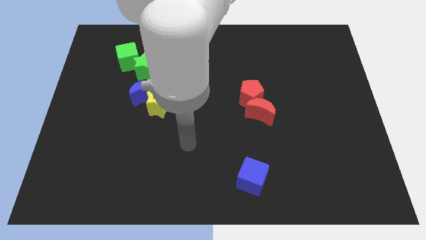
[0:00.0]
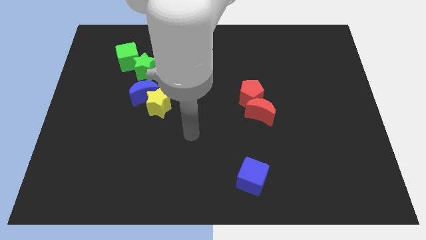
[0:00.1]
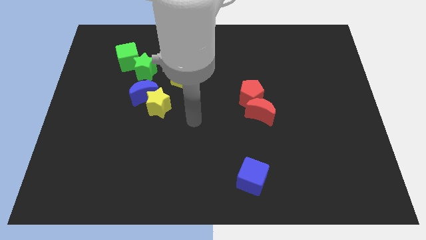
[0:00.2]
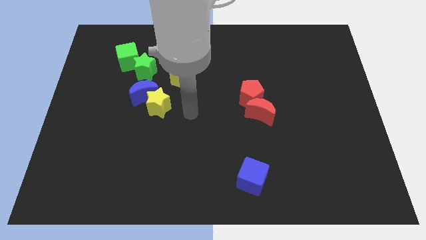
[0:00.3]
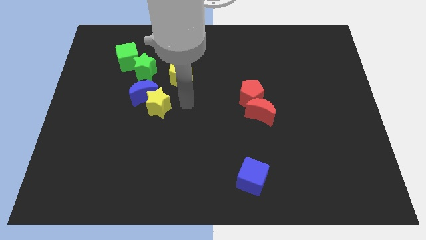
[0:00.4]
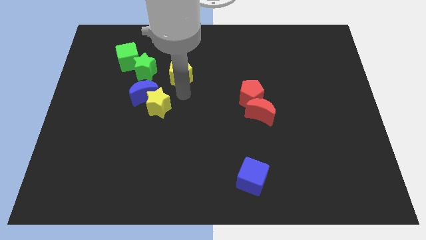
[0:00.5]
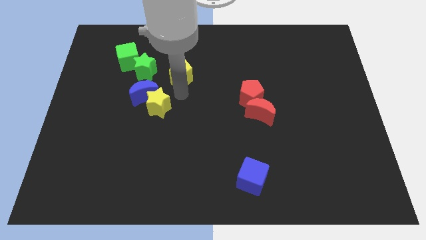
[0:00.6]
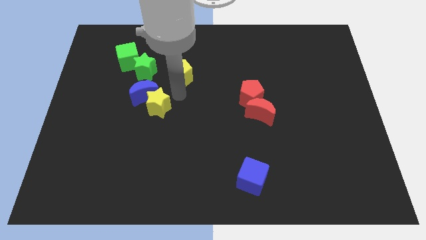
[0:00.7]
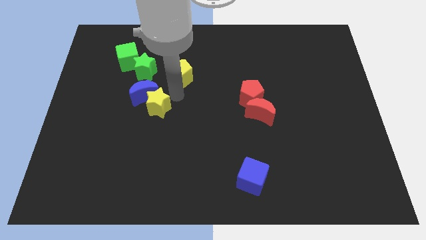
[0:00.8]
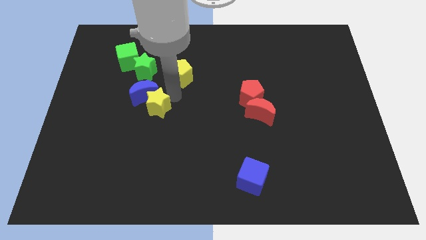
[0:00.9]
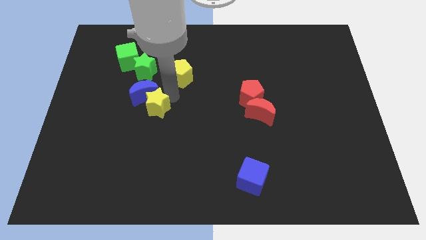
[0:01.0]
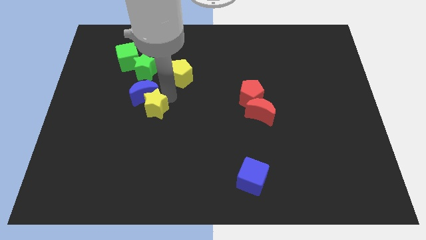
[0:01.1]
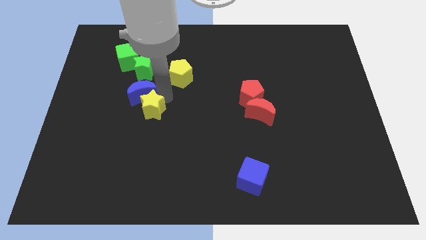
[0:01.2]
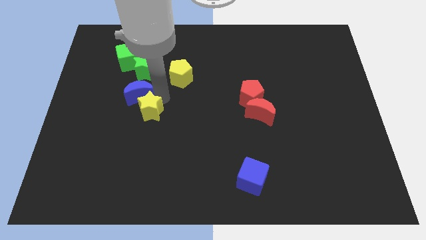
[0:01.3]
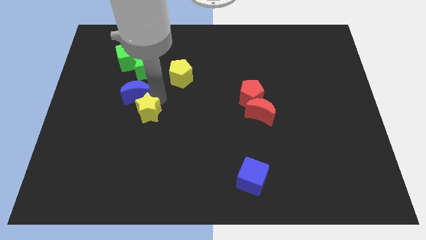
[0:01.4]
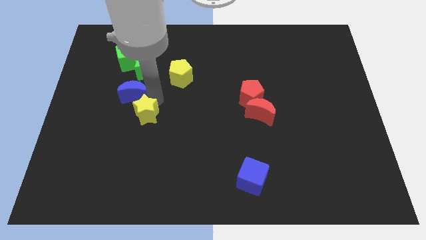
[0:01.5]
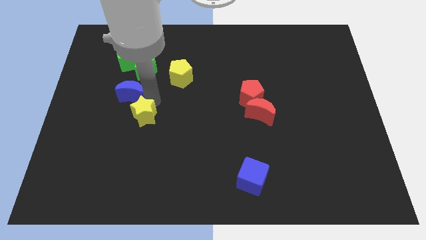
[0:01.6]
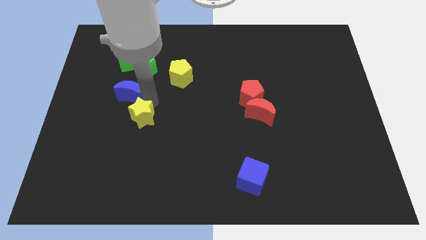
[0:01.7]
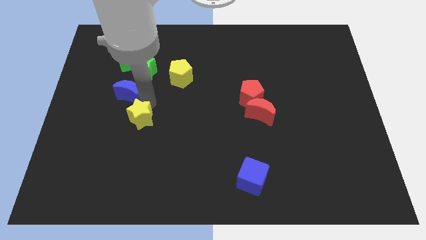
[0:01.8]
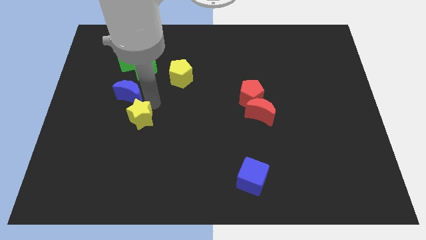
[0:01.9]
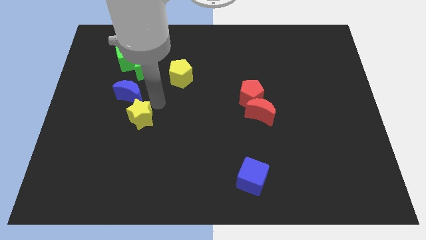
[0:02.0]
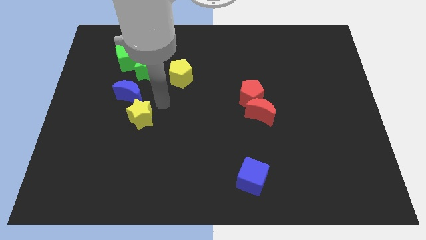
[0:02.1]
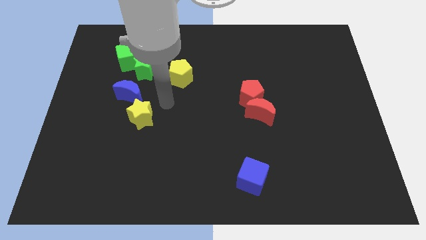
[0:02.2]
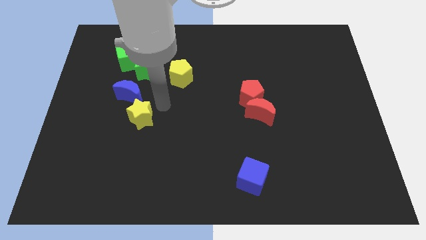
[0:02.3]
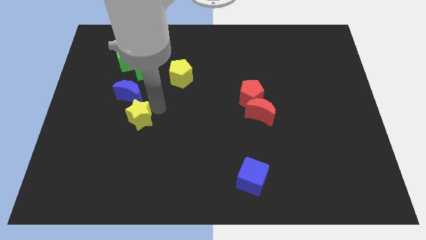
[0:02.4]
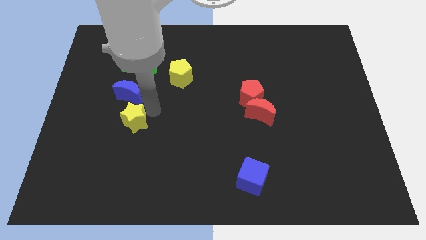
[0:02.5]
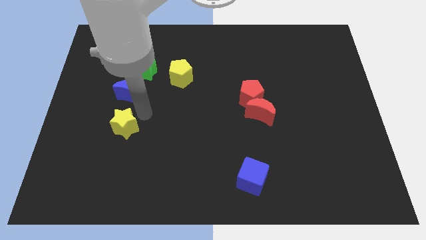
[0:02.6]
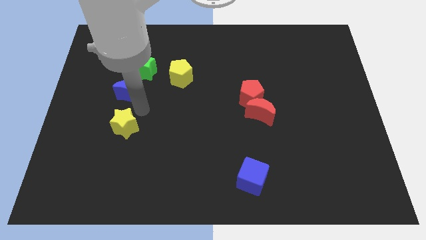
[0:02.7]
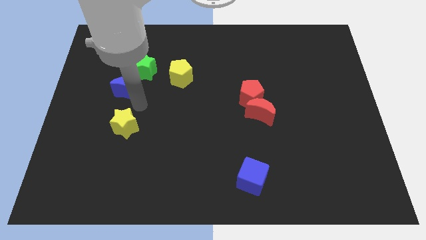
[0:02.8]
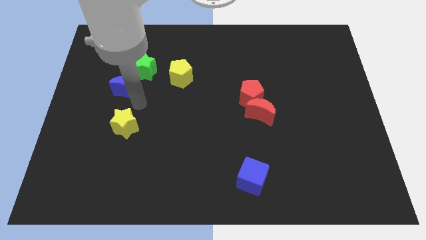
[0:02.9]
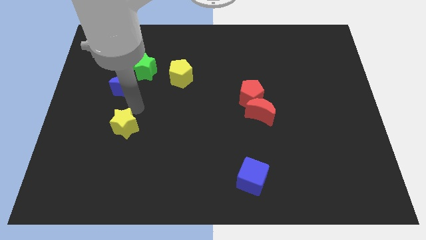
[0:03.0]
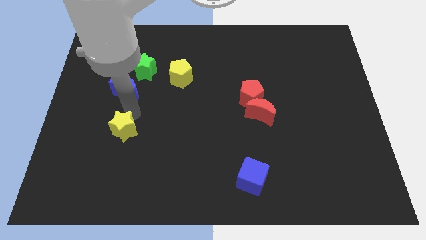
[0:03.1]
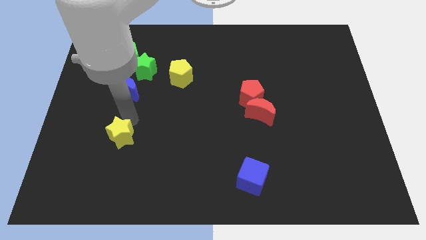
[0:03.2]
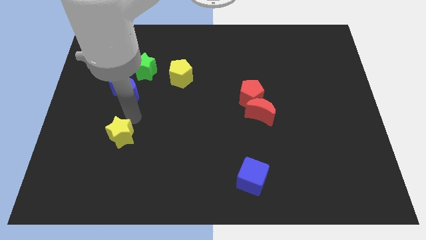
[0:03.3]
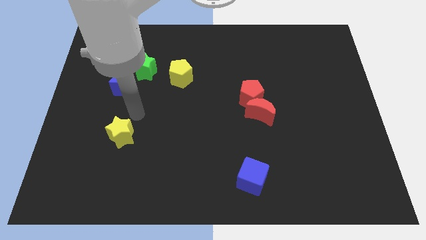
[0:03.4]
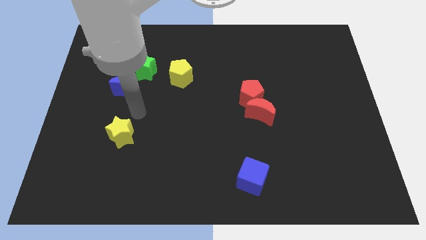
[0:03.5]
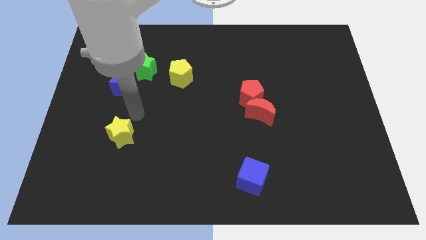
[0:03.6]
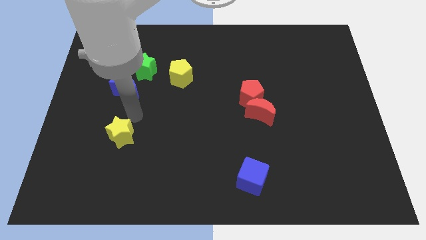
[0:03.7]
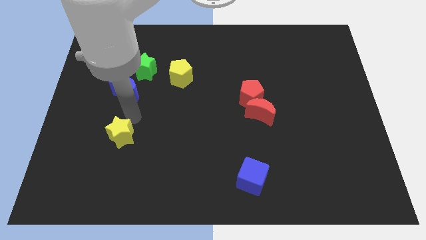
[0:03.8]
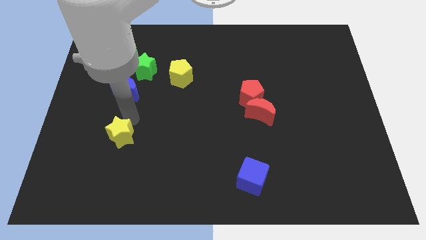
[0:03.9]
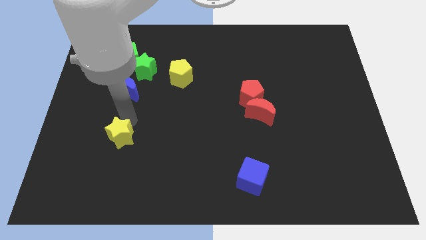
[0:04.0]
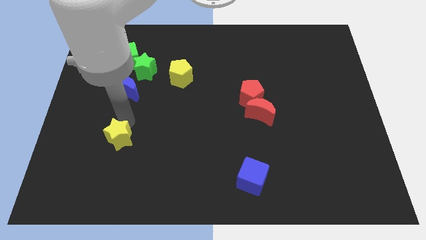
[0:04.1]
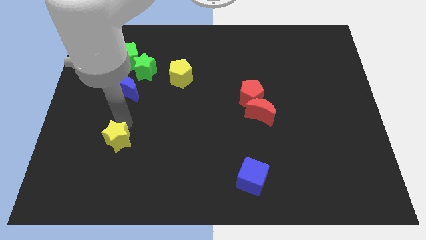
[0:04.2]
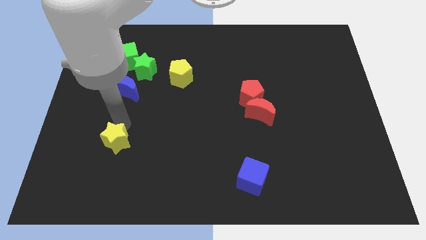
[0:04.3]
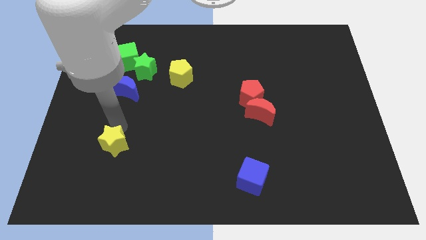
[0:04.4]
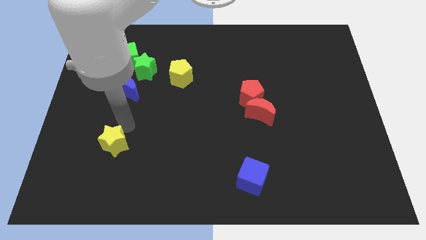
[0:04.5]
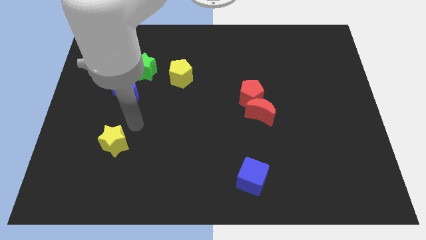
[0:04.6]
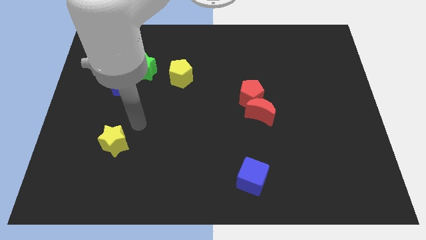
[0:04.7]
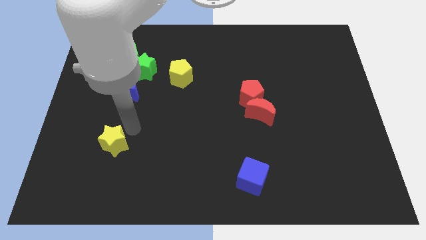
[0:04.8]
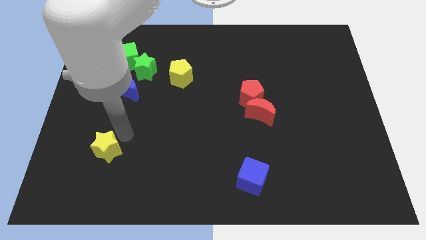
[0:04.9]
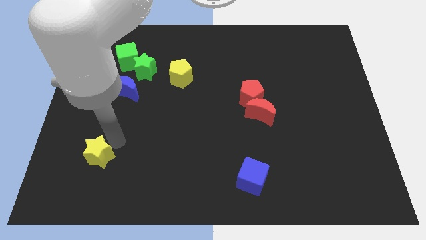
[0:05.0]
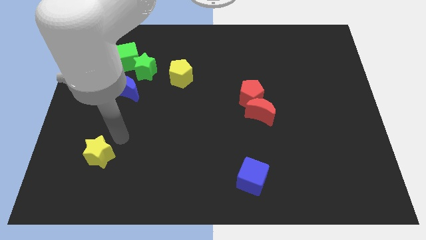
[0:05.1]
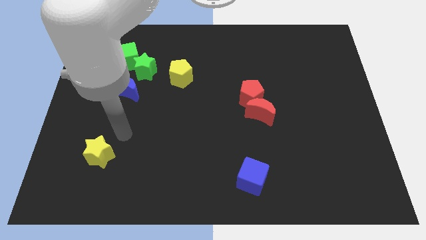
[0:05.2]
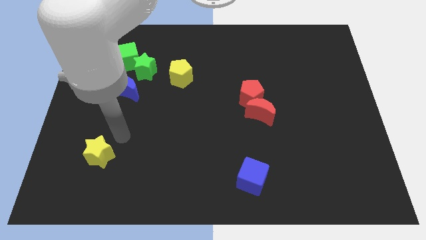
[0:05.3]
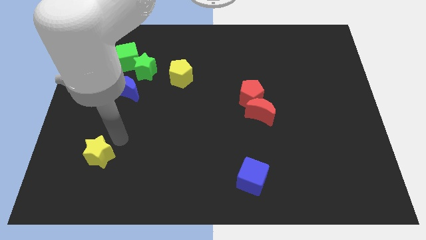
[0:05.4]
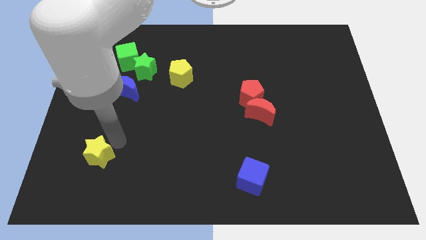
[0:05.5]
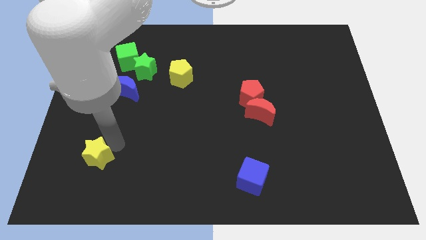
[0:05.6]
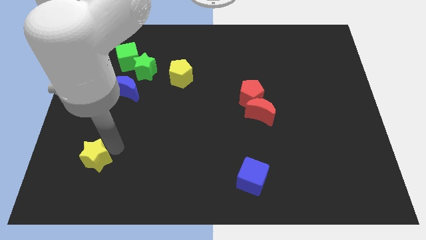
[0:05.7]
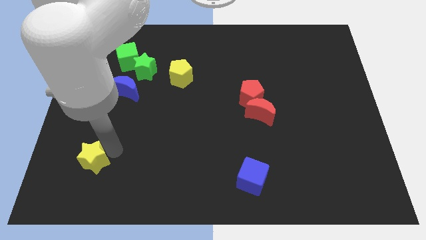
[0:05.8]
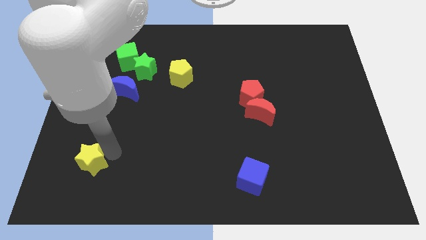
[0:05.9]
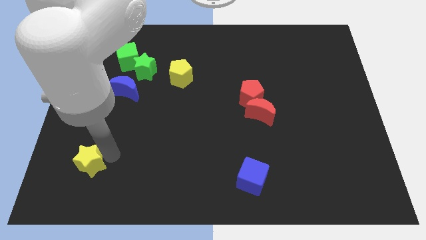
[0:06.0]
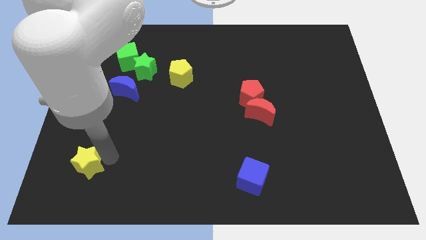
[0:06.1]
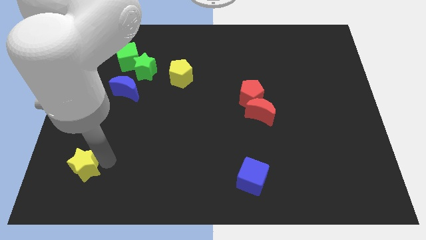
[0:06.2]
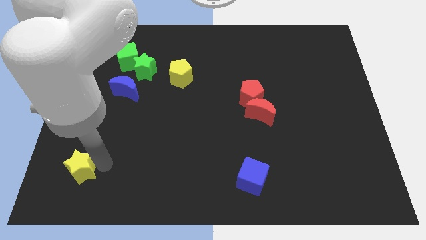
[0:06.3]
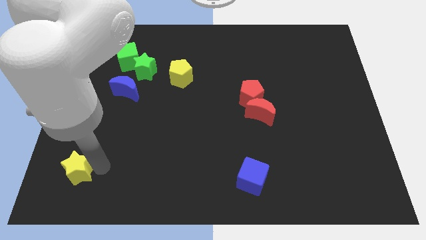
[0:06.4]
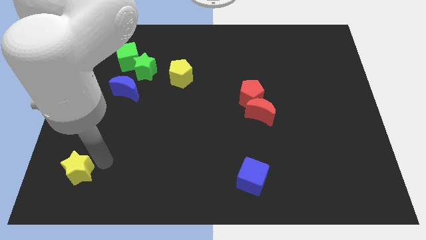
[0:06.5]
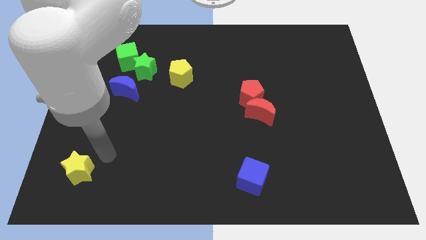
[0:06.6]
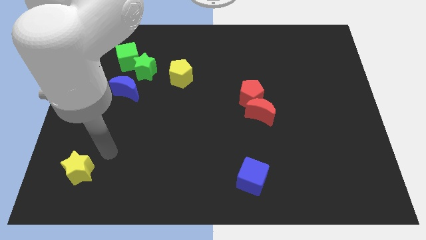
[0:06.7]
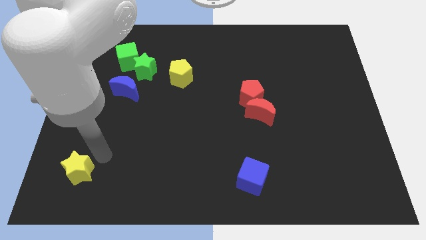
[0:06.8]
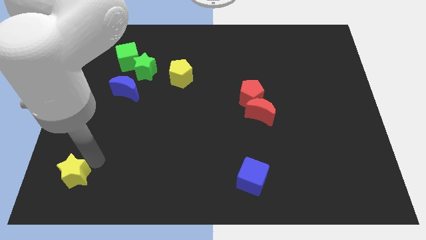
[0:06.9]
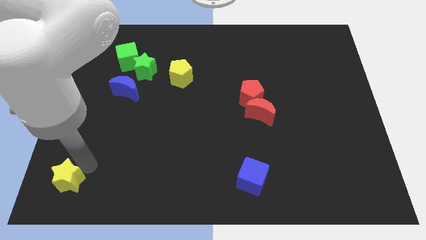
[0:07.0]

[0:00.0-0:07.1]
push the yellow star to the bottom left of the board
